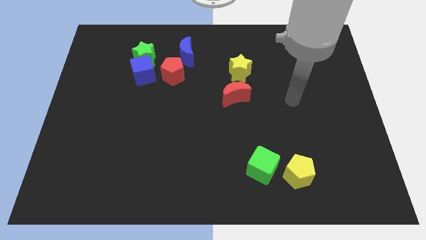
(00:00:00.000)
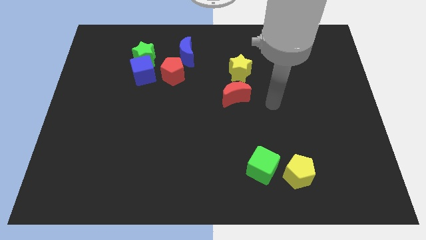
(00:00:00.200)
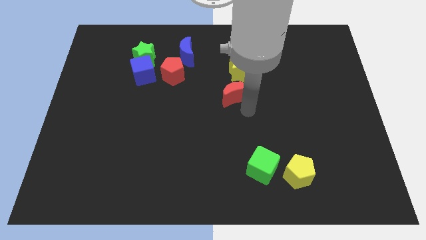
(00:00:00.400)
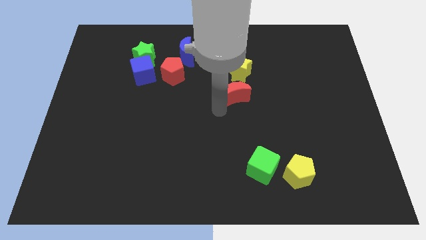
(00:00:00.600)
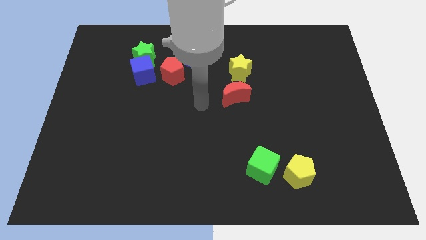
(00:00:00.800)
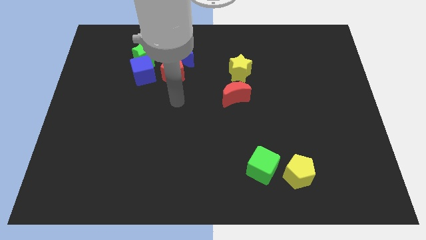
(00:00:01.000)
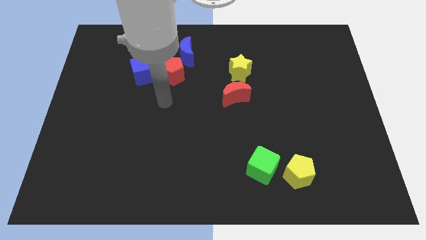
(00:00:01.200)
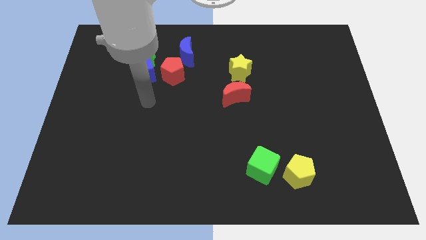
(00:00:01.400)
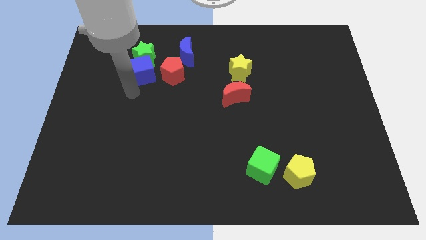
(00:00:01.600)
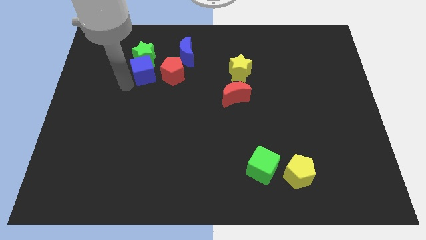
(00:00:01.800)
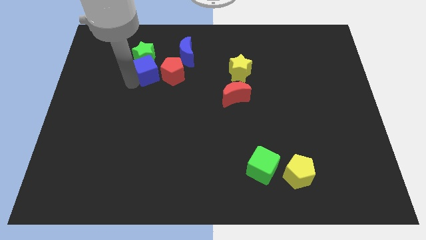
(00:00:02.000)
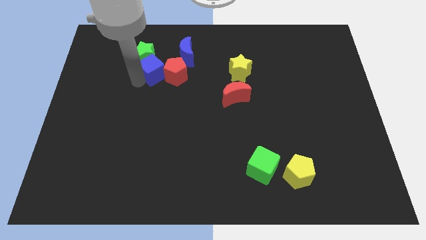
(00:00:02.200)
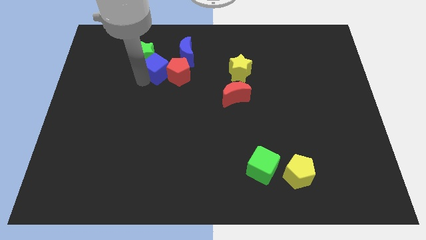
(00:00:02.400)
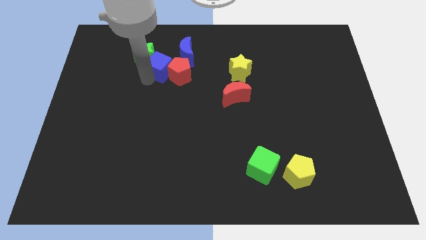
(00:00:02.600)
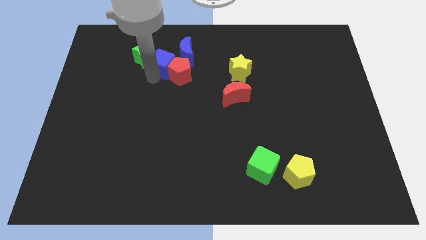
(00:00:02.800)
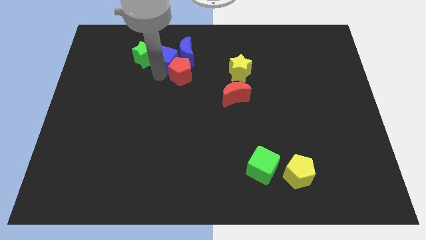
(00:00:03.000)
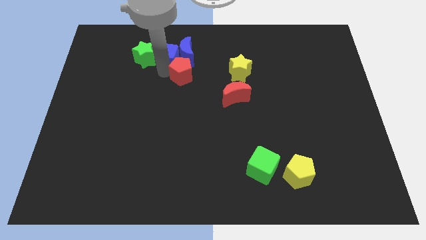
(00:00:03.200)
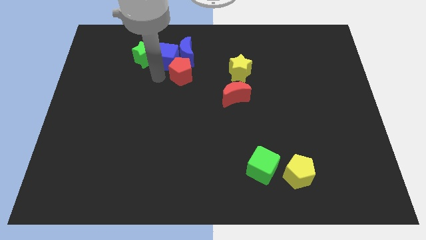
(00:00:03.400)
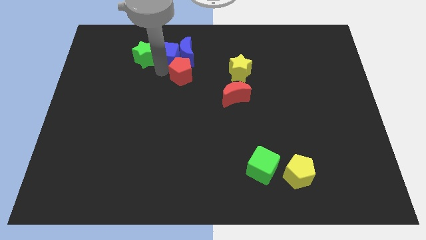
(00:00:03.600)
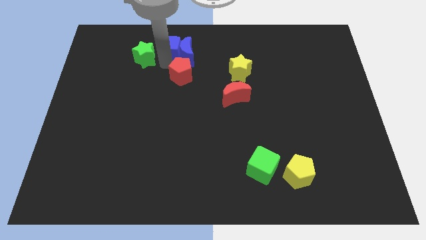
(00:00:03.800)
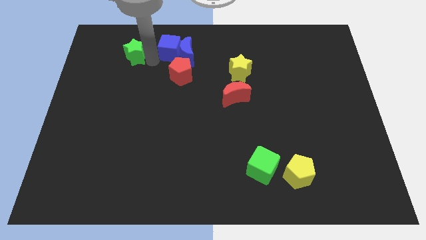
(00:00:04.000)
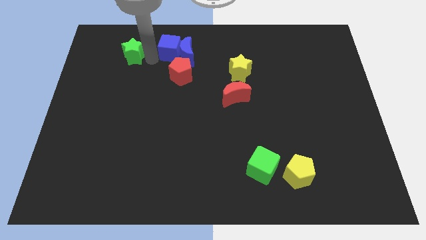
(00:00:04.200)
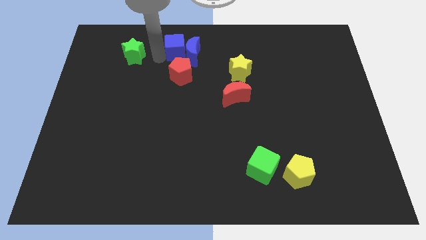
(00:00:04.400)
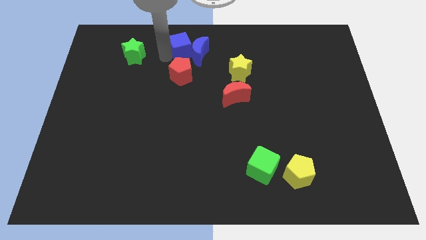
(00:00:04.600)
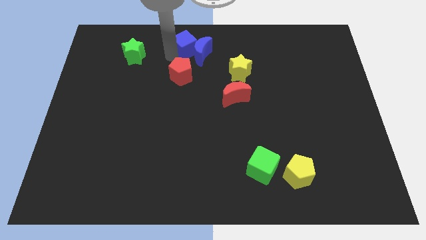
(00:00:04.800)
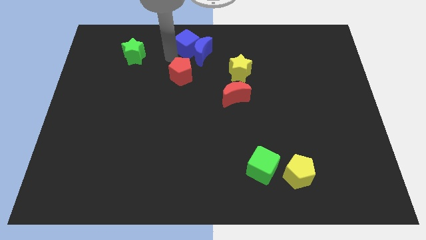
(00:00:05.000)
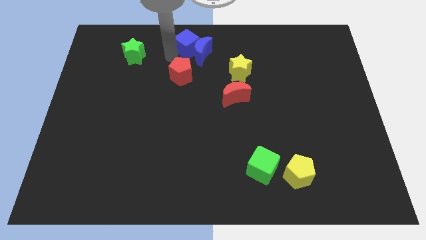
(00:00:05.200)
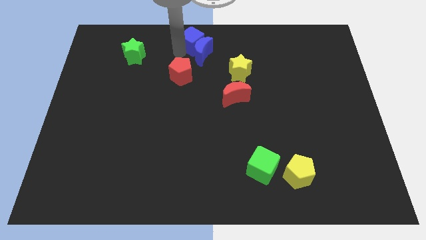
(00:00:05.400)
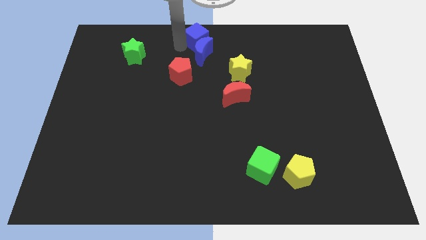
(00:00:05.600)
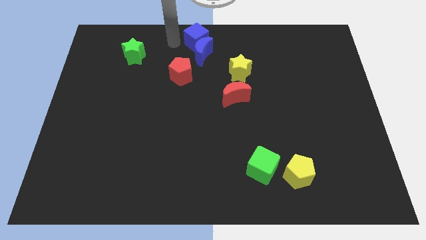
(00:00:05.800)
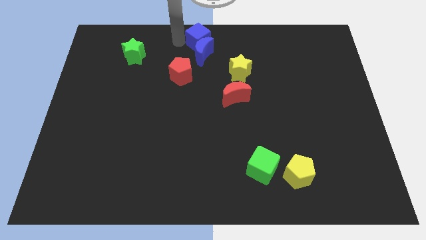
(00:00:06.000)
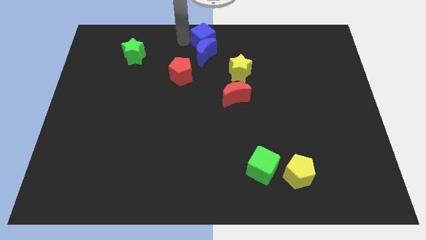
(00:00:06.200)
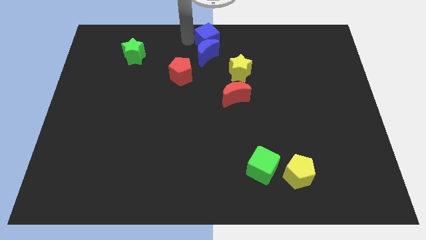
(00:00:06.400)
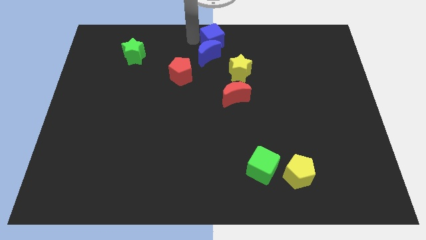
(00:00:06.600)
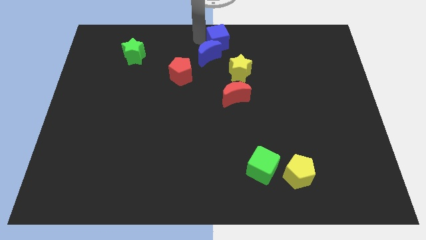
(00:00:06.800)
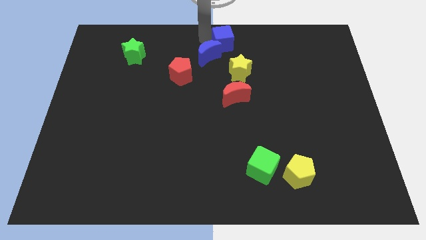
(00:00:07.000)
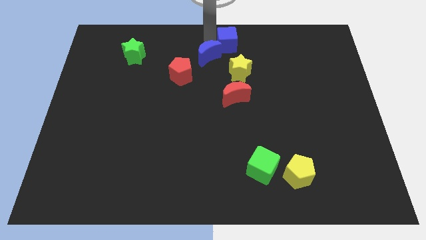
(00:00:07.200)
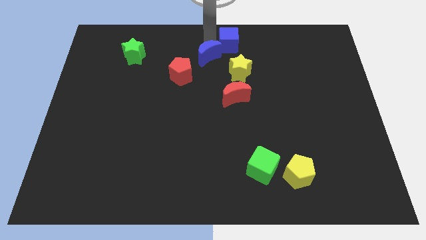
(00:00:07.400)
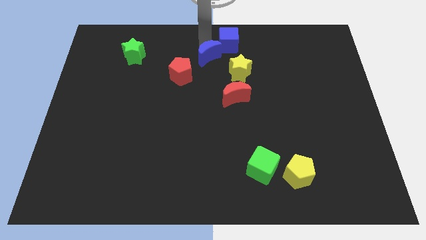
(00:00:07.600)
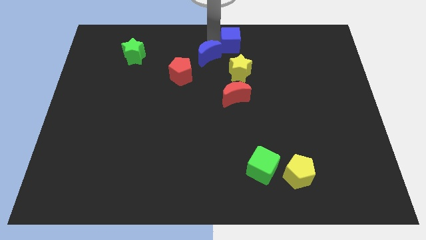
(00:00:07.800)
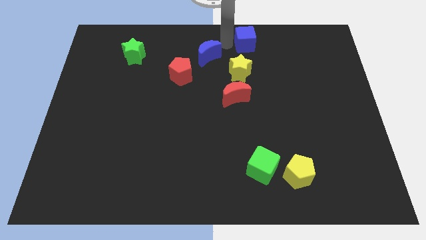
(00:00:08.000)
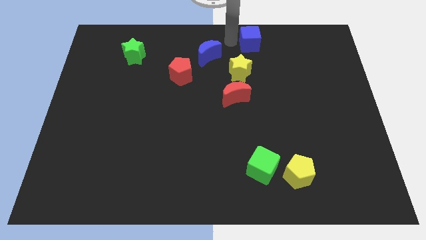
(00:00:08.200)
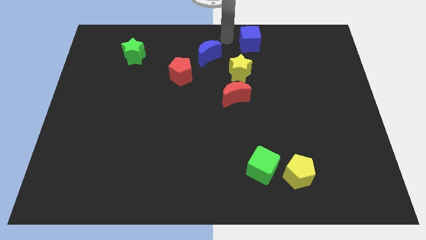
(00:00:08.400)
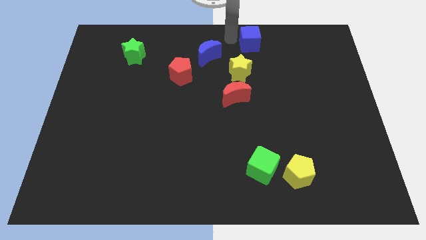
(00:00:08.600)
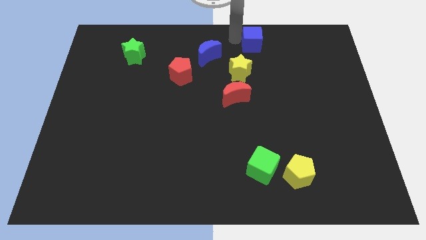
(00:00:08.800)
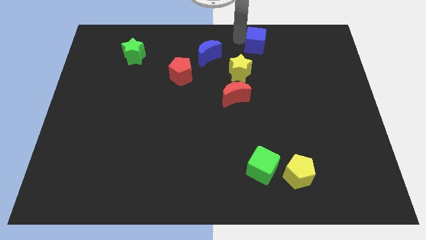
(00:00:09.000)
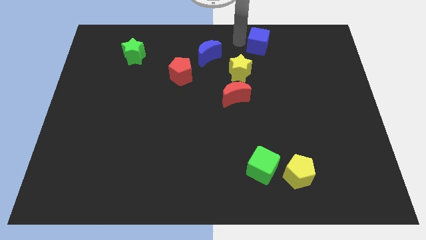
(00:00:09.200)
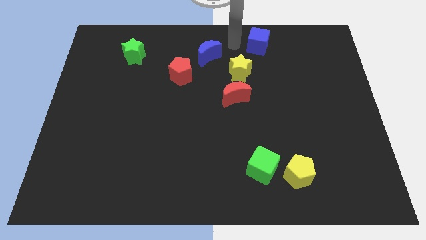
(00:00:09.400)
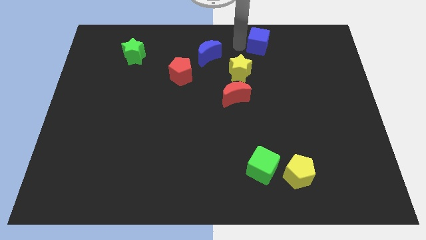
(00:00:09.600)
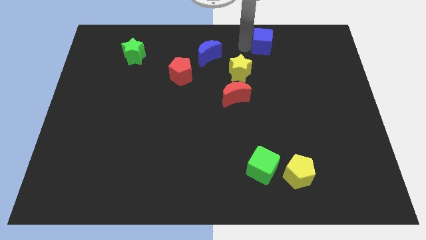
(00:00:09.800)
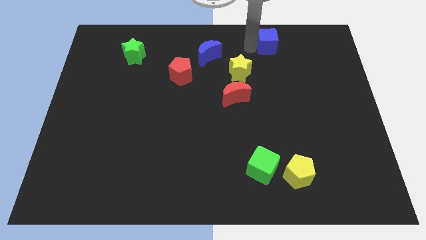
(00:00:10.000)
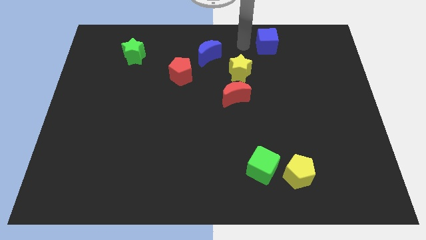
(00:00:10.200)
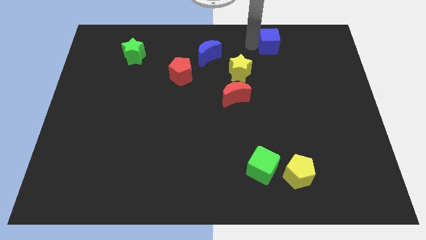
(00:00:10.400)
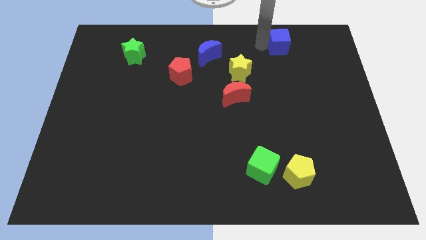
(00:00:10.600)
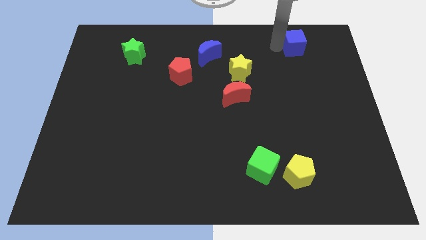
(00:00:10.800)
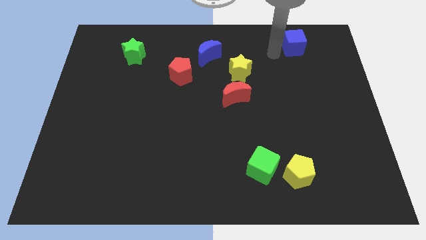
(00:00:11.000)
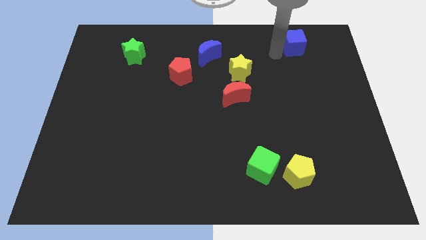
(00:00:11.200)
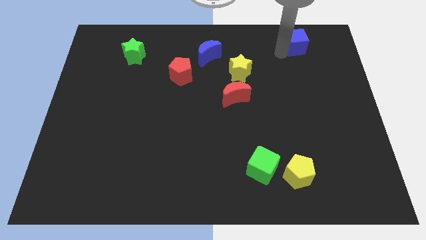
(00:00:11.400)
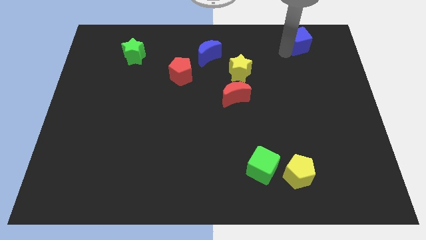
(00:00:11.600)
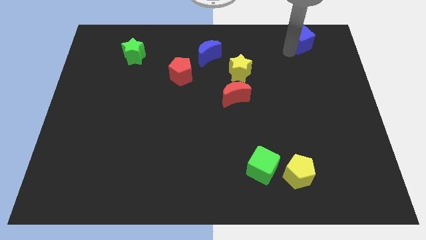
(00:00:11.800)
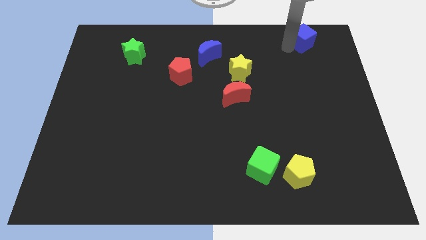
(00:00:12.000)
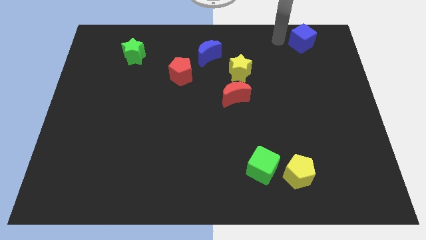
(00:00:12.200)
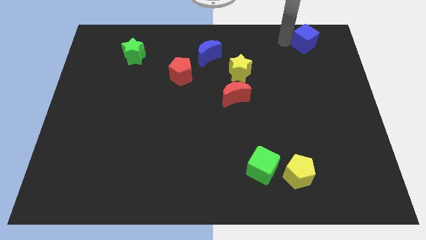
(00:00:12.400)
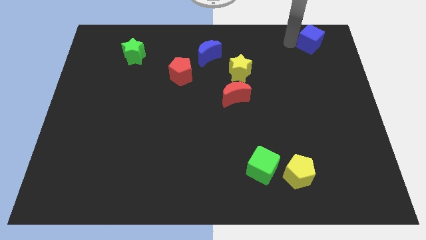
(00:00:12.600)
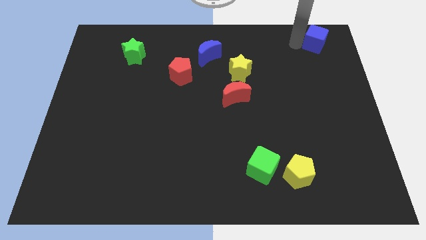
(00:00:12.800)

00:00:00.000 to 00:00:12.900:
push the blue cube to the top right

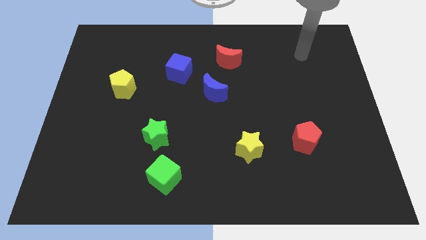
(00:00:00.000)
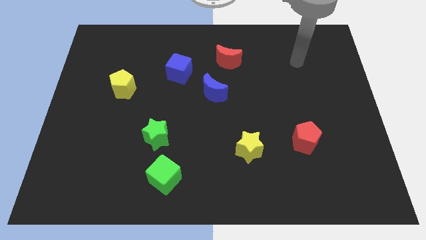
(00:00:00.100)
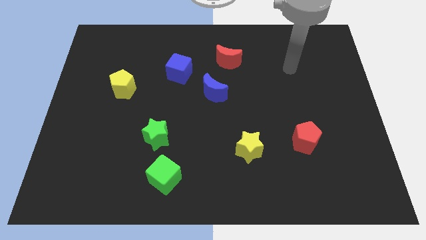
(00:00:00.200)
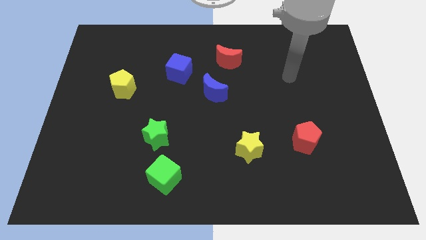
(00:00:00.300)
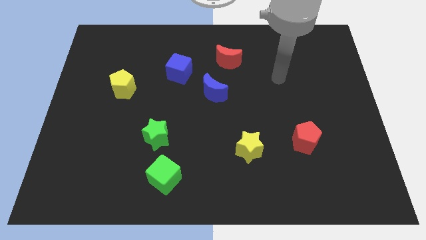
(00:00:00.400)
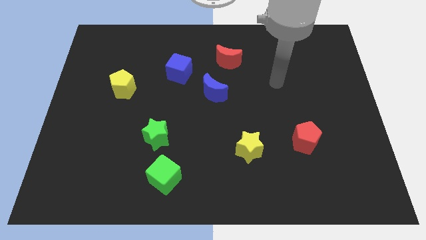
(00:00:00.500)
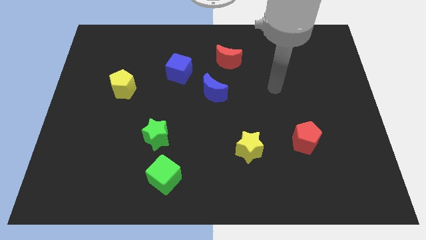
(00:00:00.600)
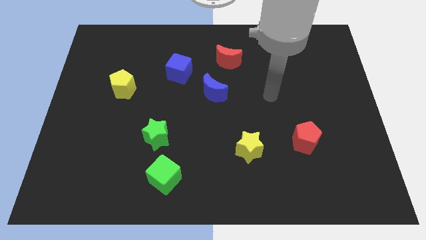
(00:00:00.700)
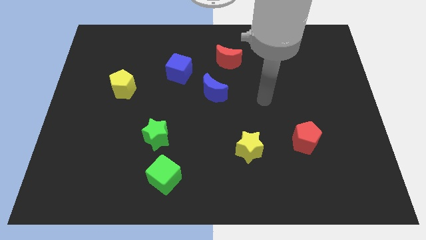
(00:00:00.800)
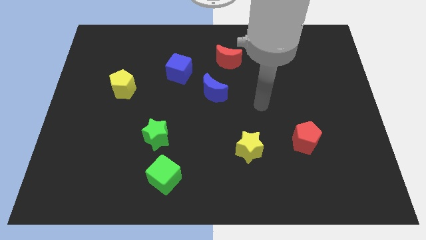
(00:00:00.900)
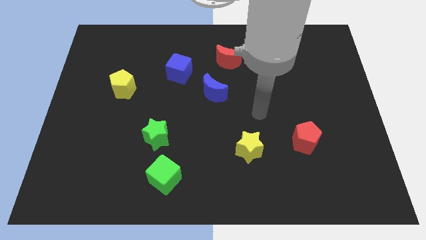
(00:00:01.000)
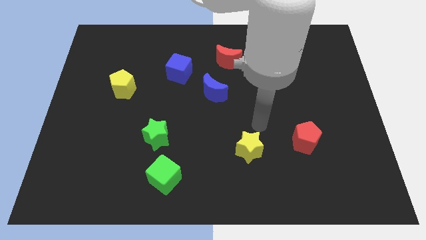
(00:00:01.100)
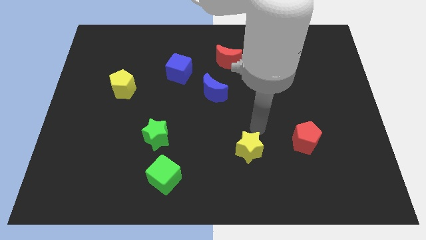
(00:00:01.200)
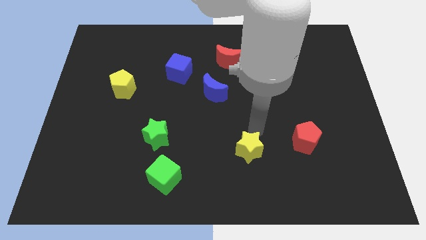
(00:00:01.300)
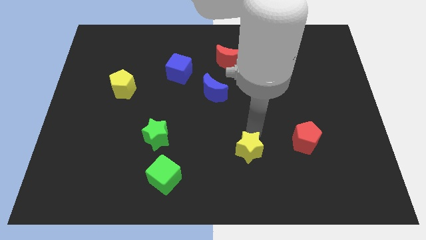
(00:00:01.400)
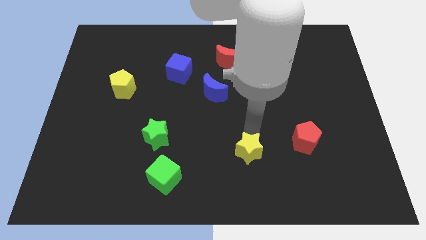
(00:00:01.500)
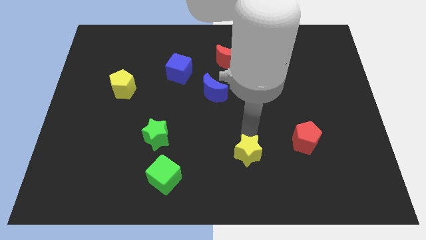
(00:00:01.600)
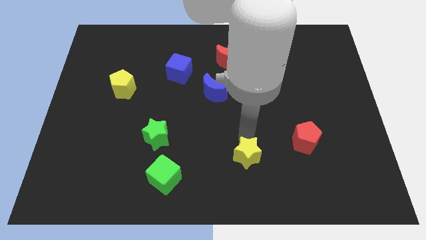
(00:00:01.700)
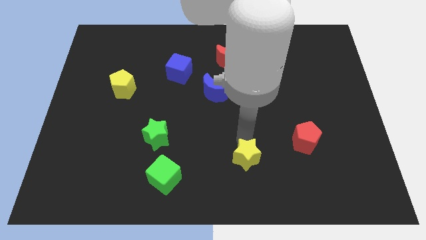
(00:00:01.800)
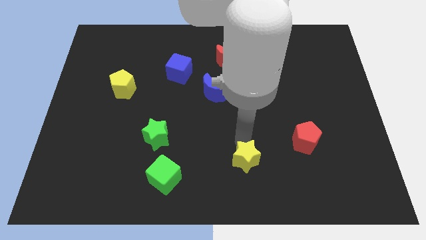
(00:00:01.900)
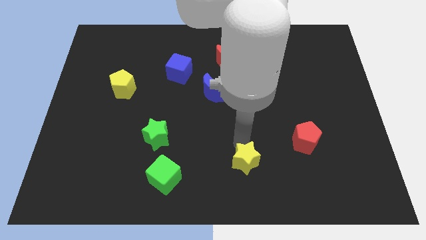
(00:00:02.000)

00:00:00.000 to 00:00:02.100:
slide the yellow star to the bottom
